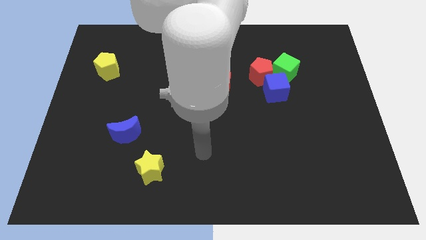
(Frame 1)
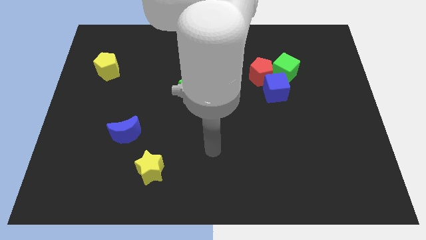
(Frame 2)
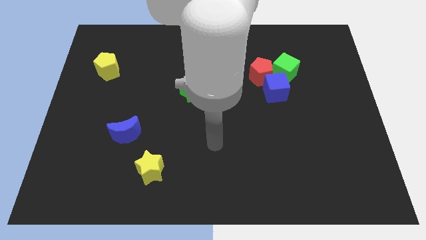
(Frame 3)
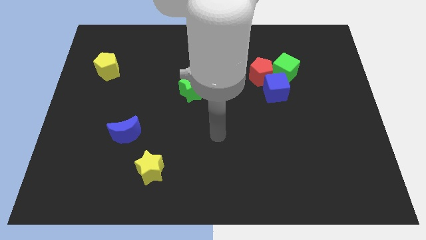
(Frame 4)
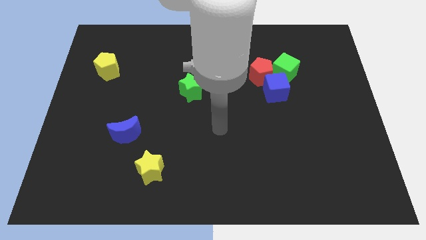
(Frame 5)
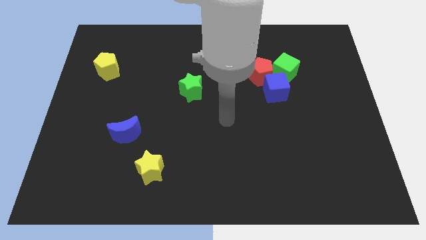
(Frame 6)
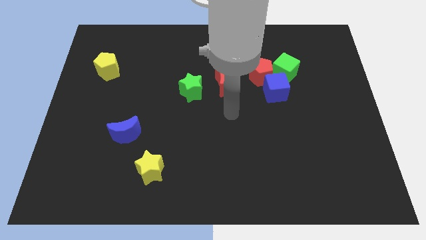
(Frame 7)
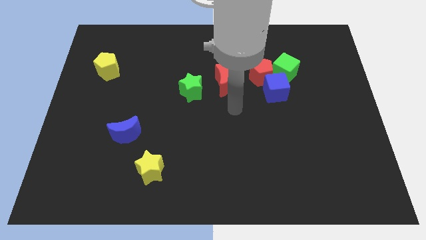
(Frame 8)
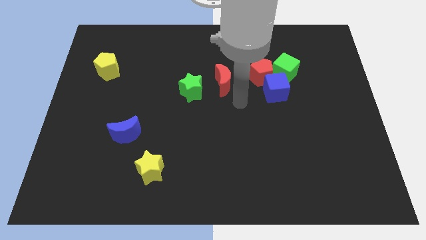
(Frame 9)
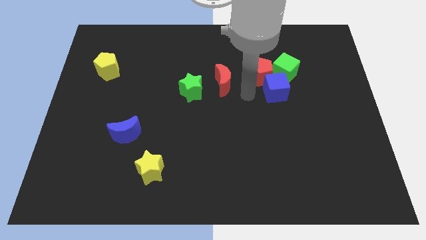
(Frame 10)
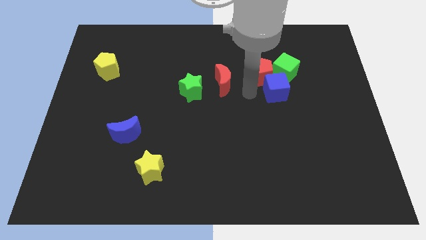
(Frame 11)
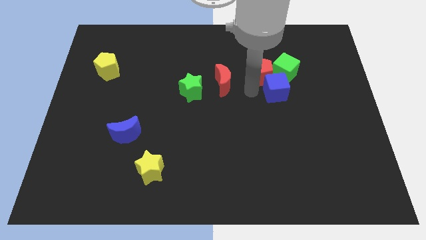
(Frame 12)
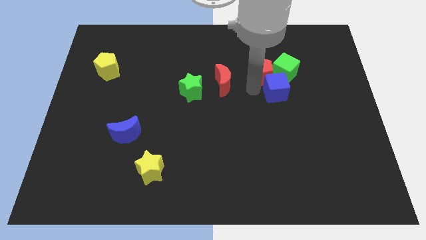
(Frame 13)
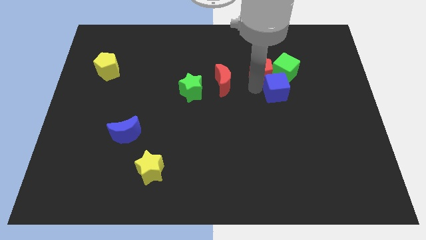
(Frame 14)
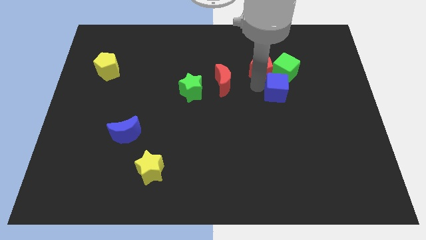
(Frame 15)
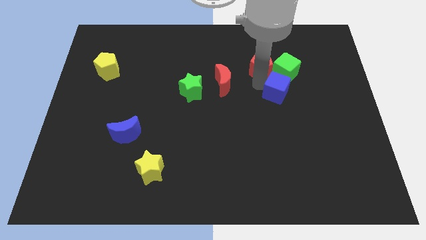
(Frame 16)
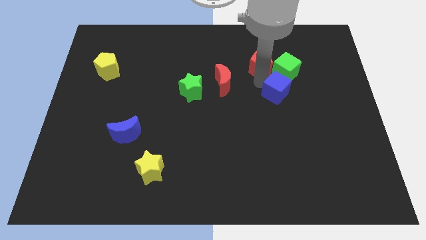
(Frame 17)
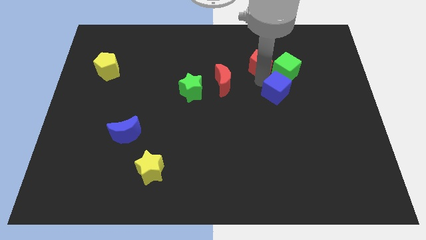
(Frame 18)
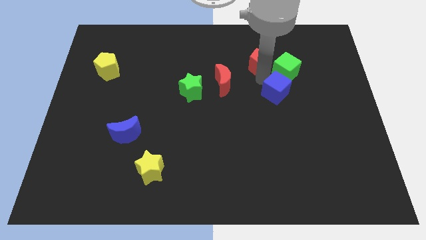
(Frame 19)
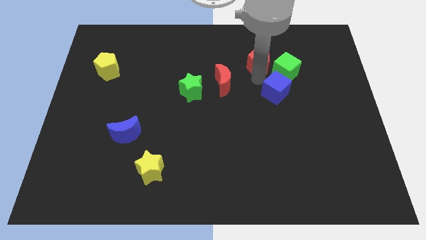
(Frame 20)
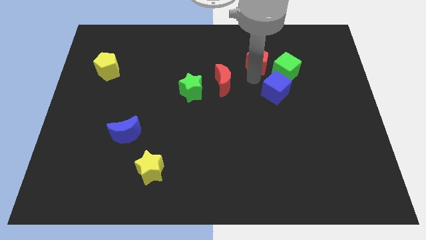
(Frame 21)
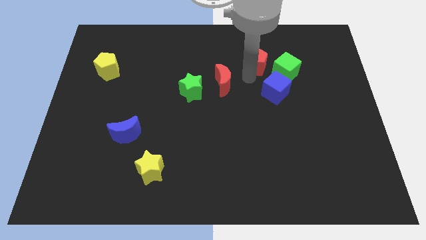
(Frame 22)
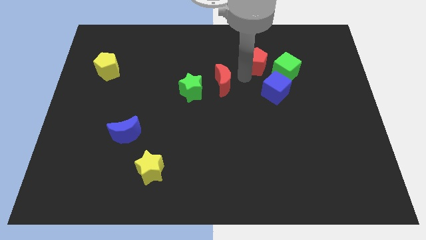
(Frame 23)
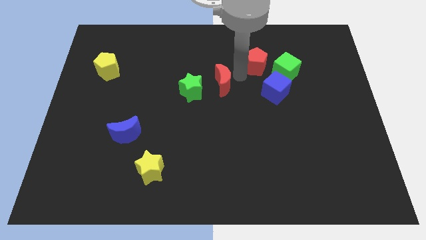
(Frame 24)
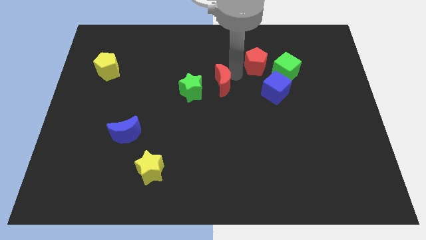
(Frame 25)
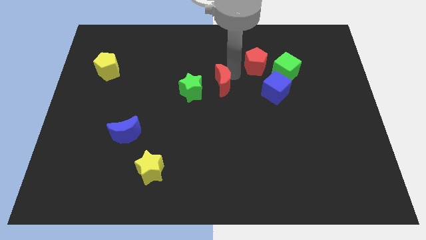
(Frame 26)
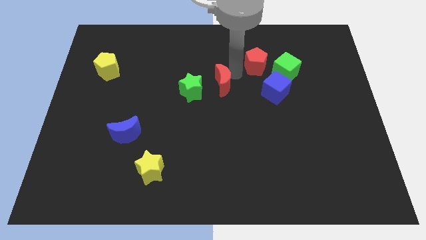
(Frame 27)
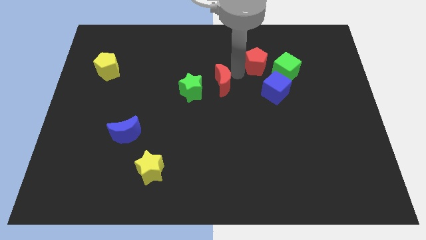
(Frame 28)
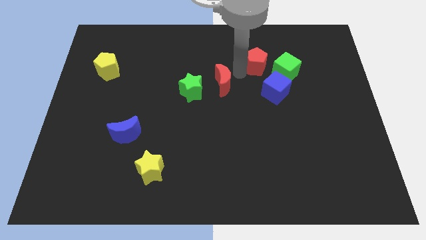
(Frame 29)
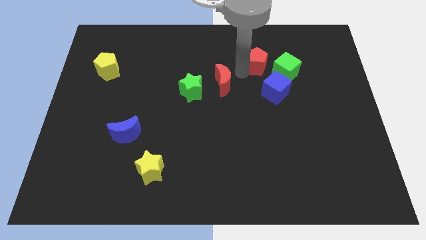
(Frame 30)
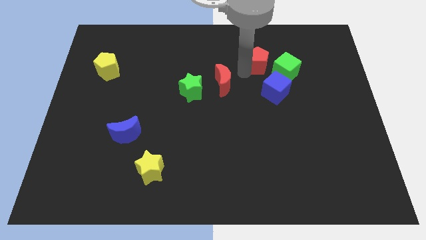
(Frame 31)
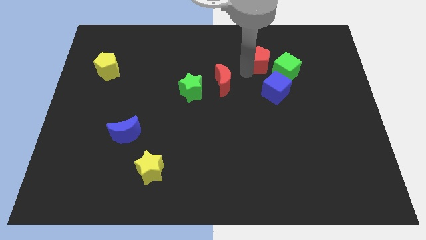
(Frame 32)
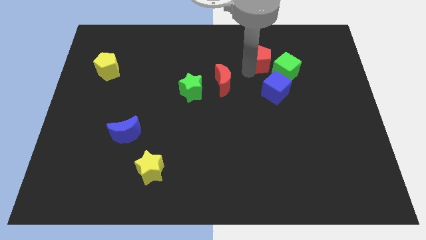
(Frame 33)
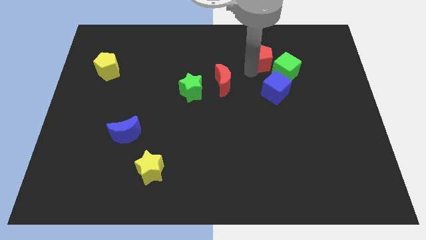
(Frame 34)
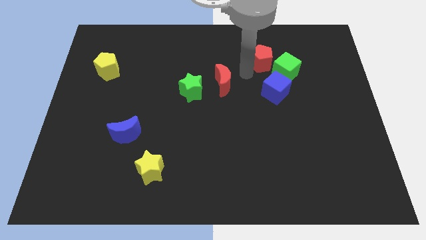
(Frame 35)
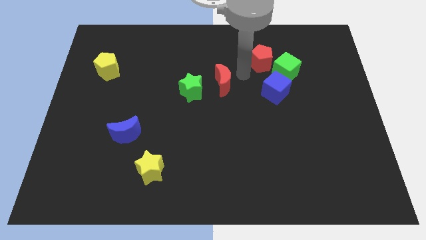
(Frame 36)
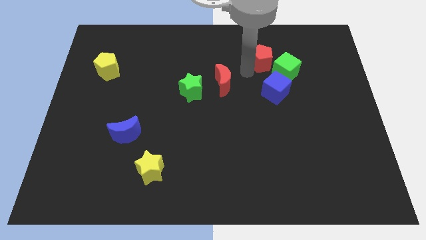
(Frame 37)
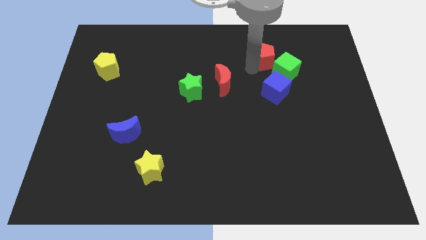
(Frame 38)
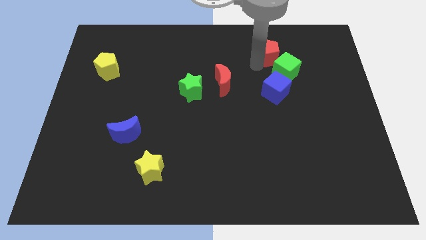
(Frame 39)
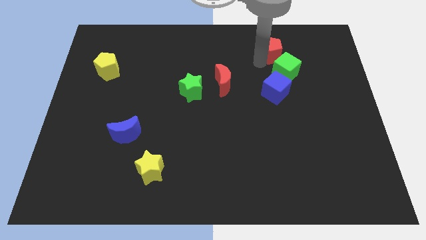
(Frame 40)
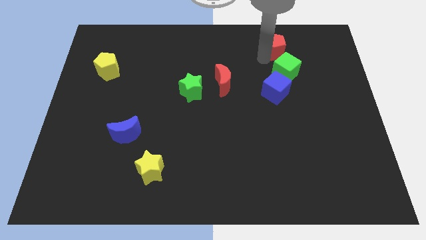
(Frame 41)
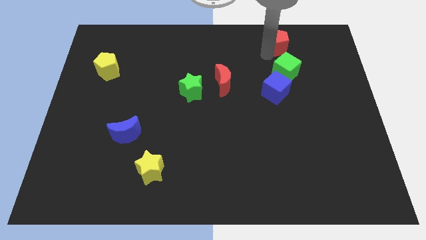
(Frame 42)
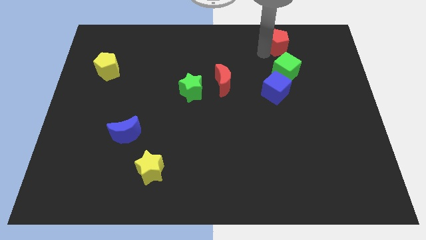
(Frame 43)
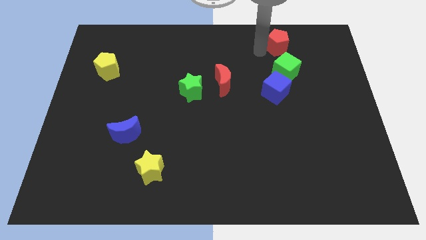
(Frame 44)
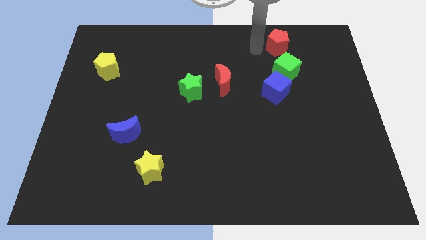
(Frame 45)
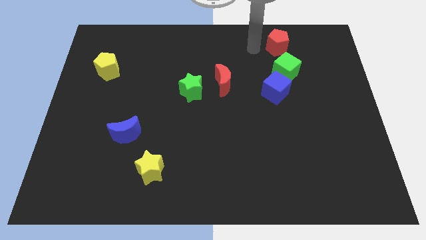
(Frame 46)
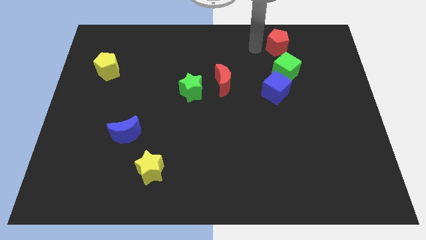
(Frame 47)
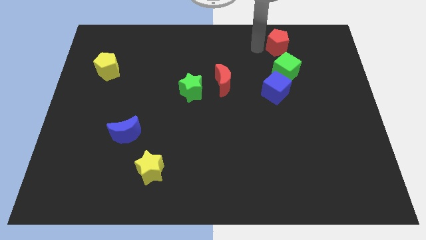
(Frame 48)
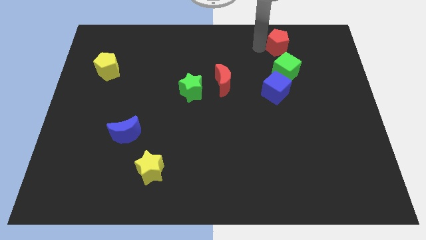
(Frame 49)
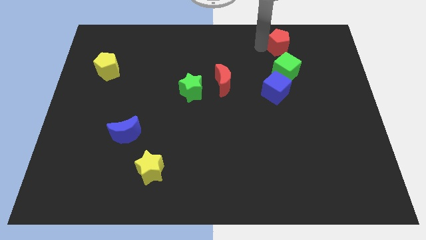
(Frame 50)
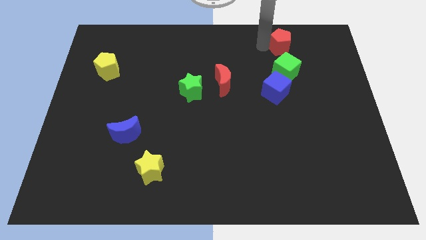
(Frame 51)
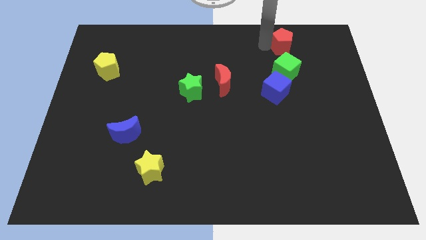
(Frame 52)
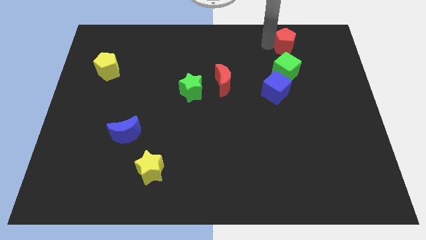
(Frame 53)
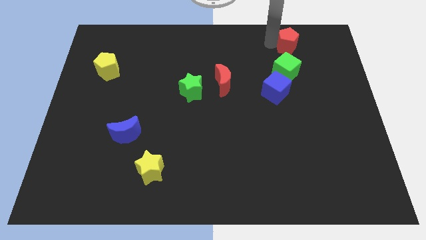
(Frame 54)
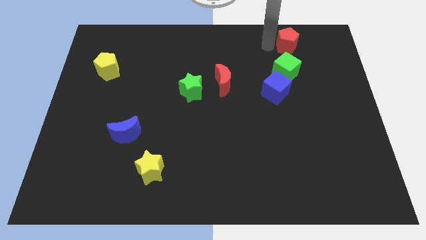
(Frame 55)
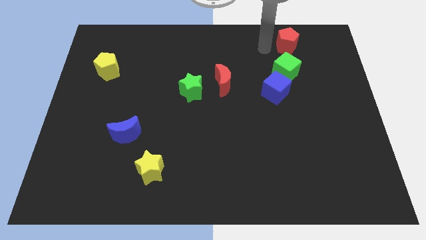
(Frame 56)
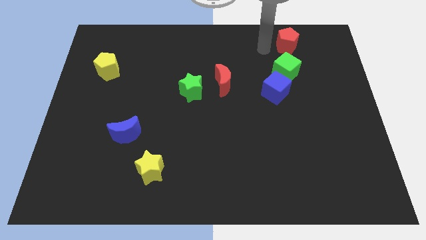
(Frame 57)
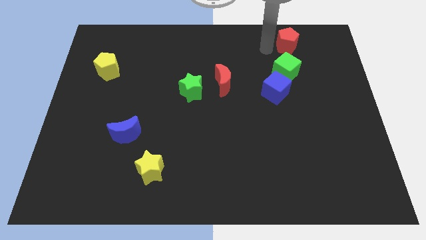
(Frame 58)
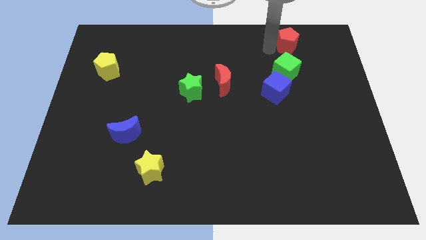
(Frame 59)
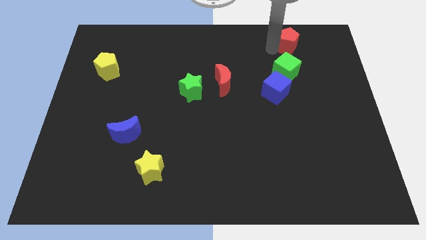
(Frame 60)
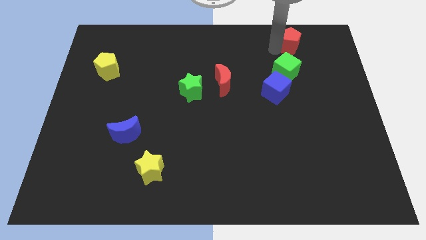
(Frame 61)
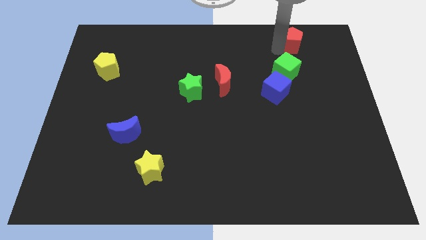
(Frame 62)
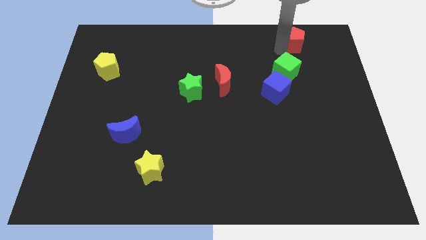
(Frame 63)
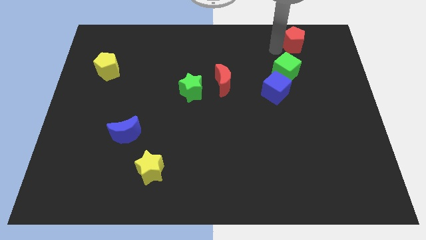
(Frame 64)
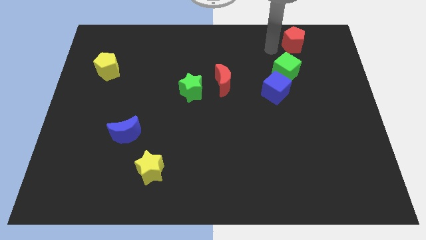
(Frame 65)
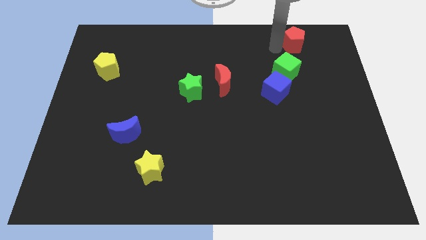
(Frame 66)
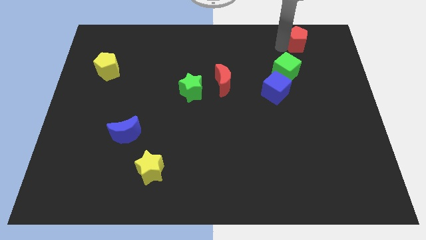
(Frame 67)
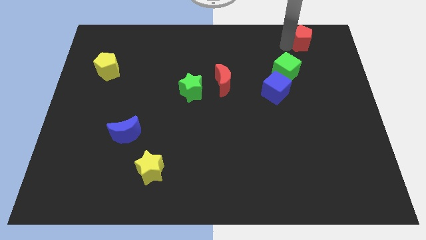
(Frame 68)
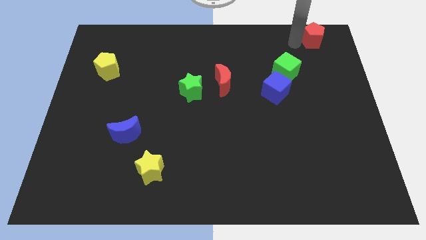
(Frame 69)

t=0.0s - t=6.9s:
move the red pentagon to the upper right corner

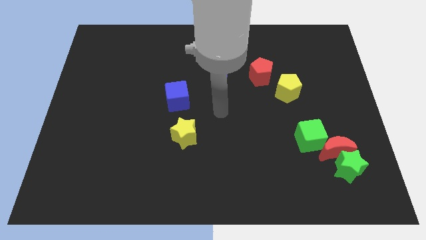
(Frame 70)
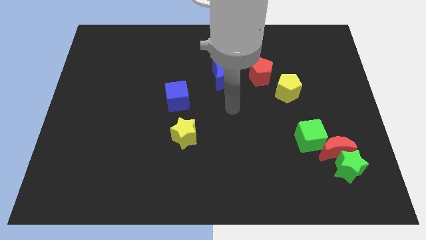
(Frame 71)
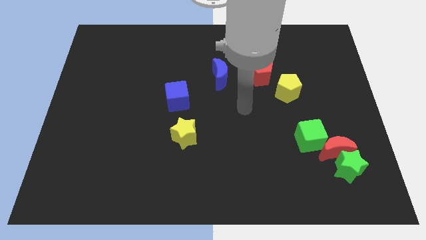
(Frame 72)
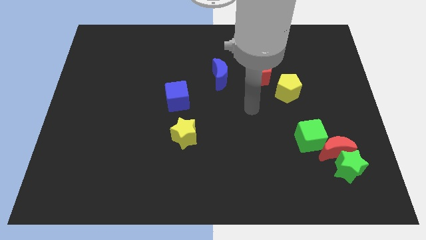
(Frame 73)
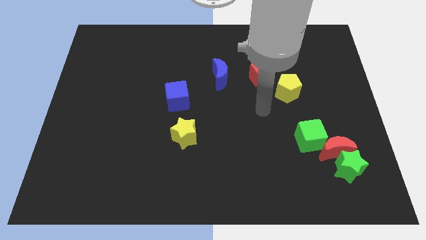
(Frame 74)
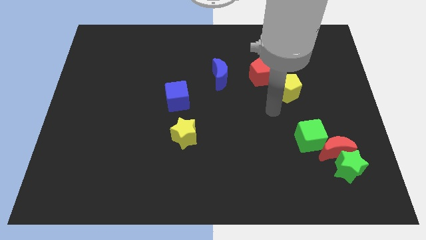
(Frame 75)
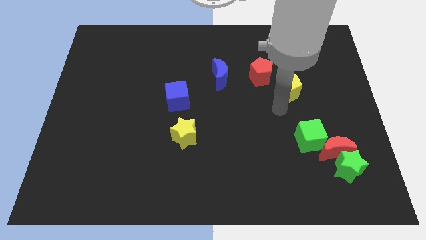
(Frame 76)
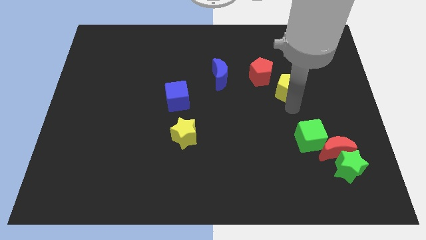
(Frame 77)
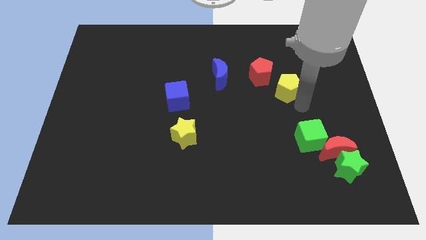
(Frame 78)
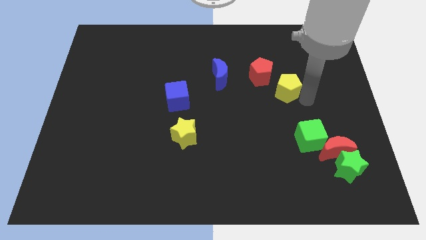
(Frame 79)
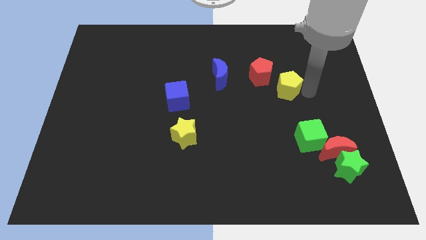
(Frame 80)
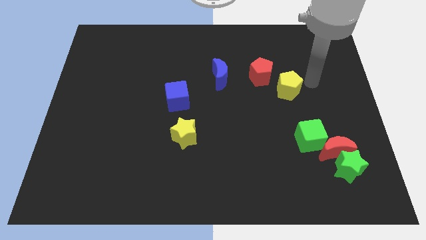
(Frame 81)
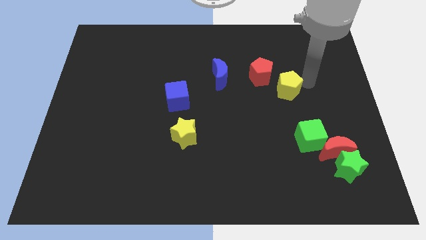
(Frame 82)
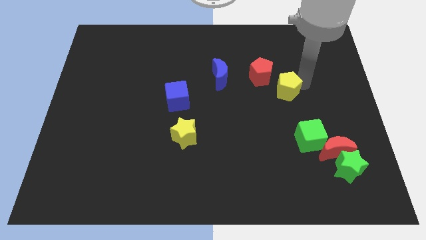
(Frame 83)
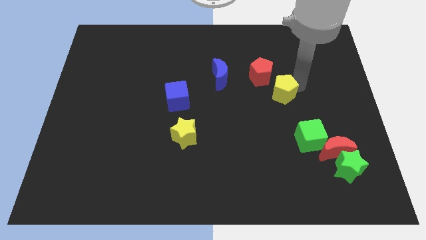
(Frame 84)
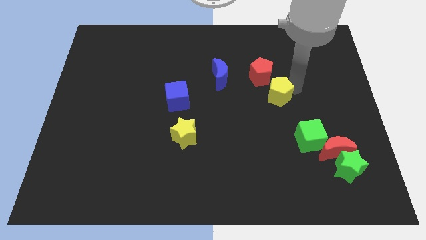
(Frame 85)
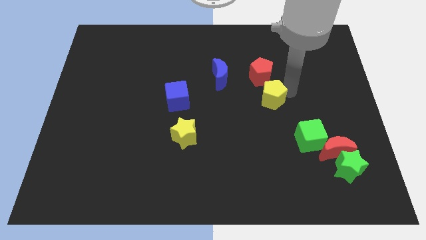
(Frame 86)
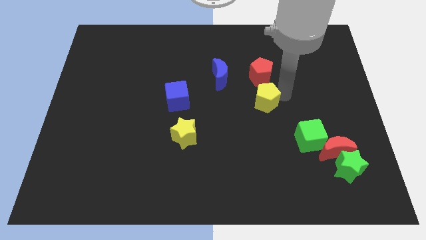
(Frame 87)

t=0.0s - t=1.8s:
put the yellow pentagon to the middle
